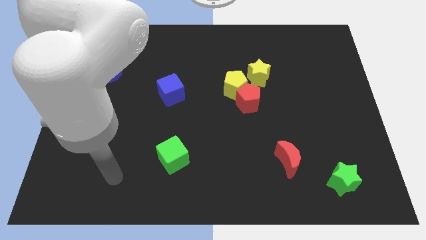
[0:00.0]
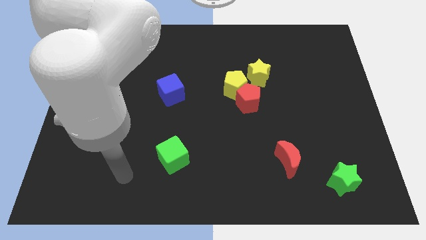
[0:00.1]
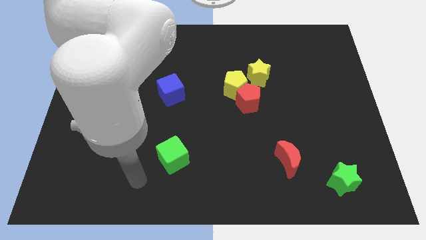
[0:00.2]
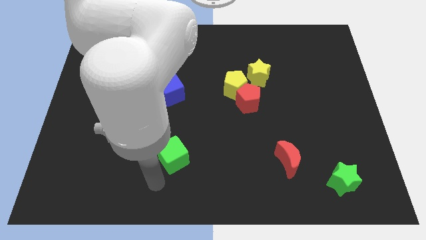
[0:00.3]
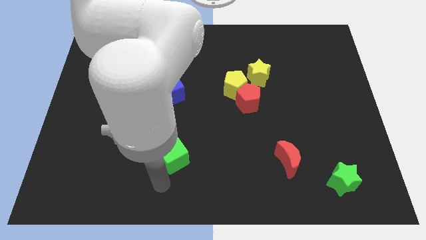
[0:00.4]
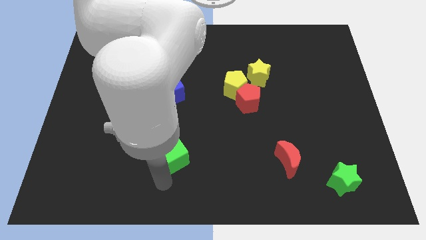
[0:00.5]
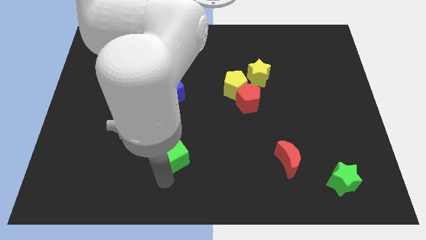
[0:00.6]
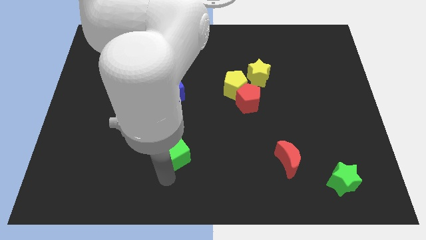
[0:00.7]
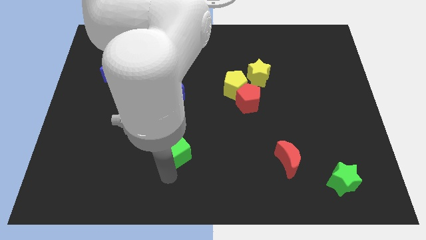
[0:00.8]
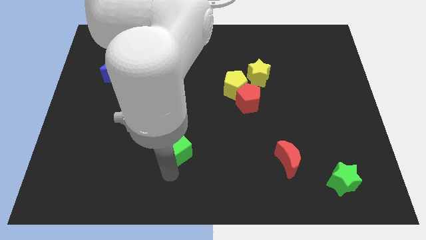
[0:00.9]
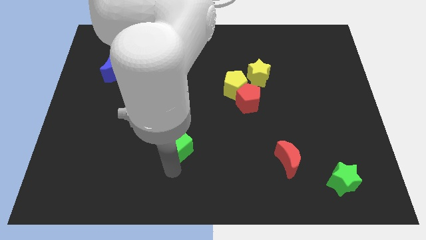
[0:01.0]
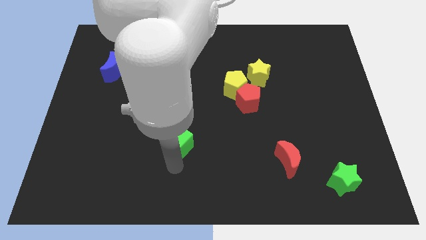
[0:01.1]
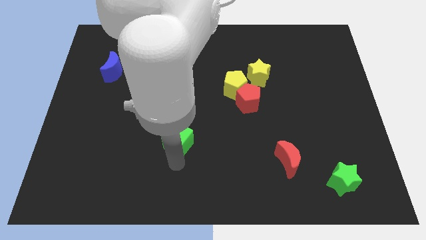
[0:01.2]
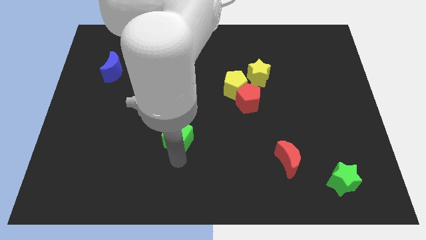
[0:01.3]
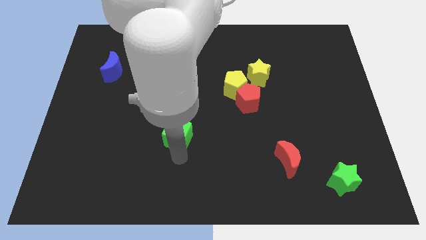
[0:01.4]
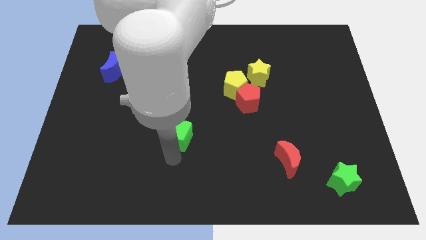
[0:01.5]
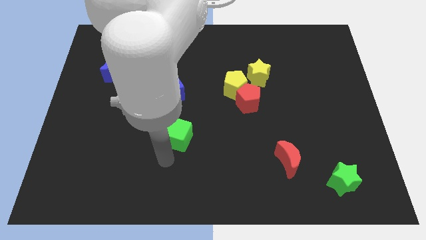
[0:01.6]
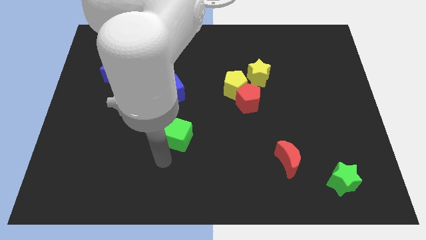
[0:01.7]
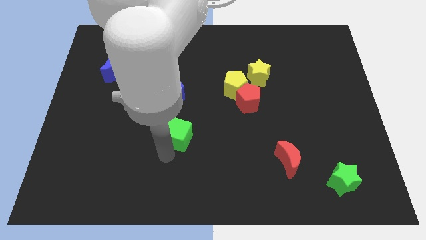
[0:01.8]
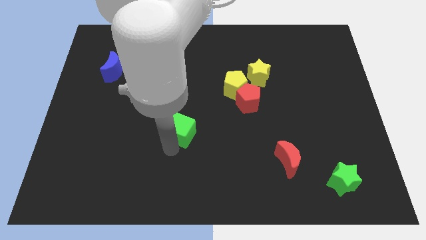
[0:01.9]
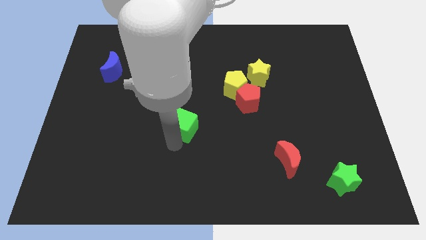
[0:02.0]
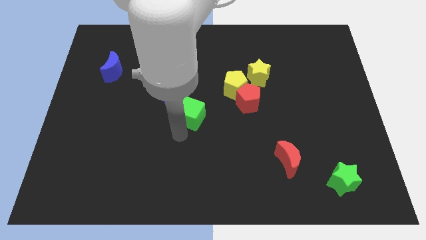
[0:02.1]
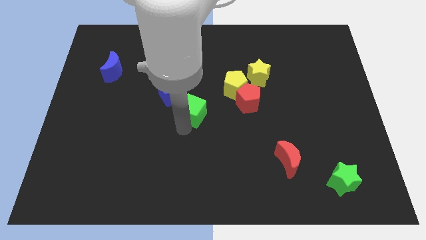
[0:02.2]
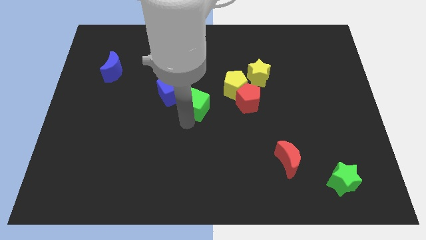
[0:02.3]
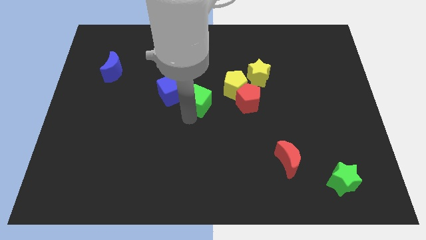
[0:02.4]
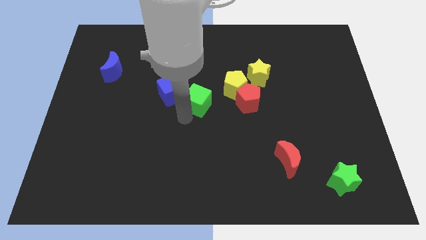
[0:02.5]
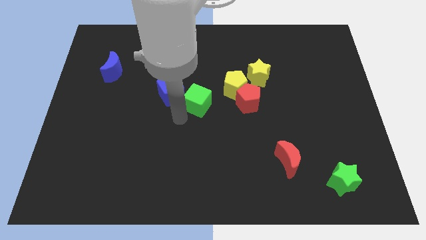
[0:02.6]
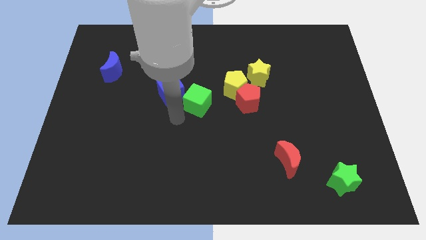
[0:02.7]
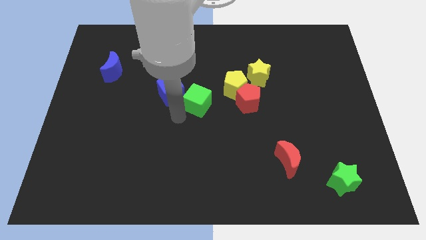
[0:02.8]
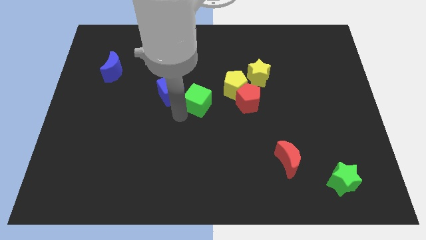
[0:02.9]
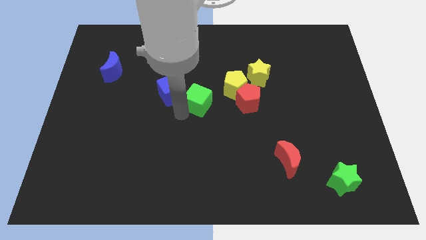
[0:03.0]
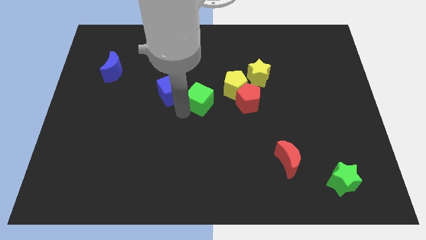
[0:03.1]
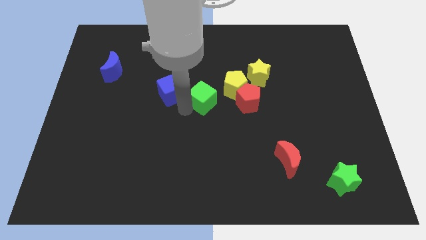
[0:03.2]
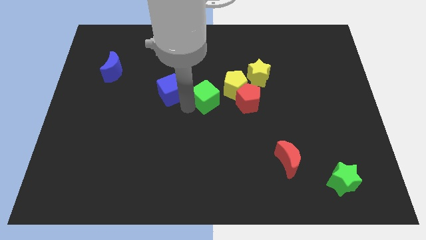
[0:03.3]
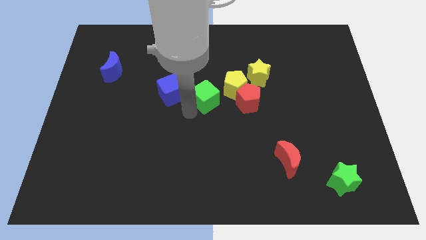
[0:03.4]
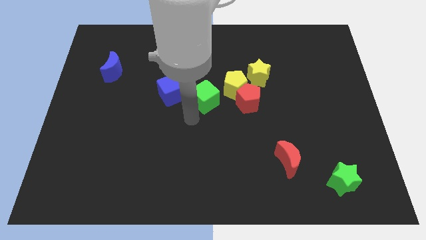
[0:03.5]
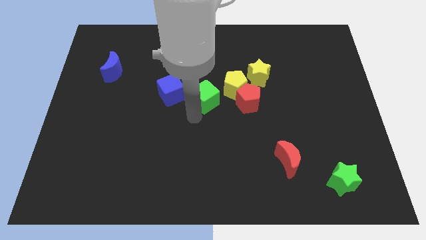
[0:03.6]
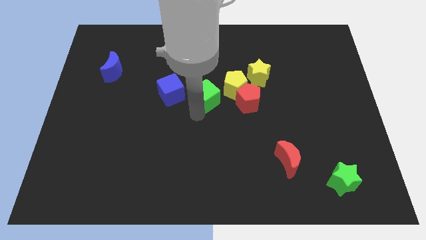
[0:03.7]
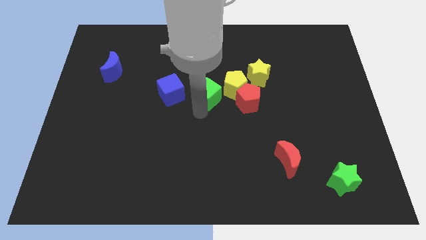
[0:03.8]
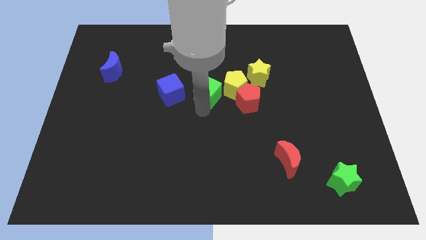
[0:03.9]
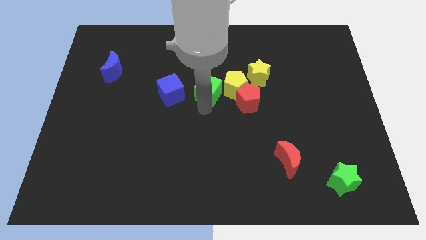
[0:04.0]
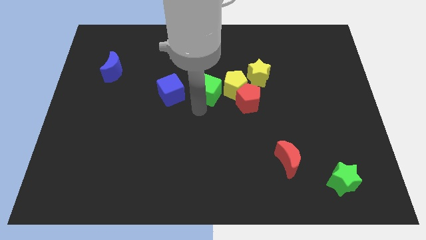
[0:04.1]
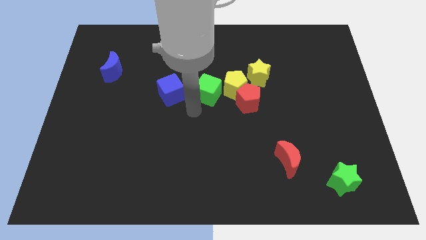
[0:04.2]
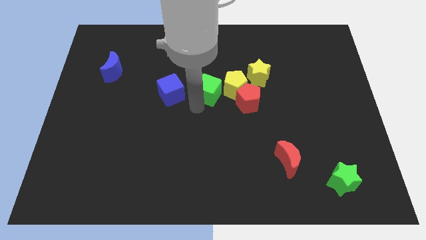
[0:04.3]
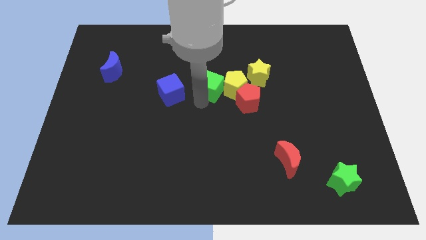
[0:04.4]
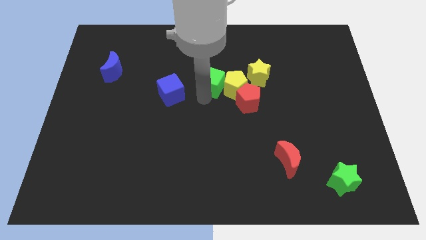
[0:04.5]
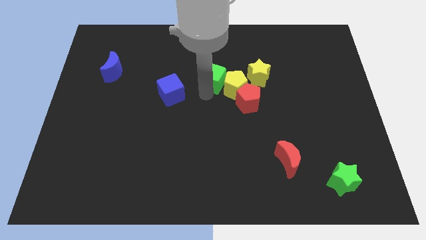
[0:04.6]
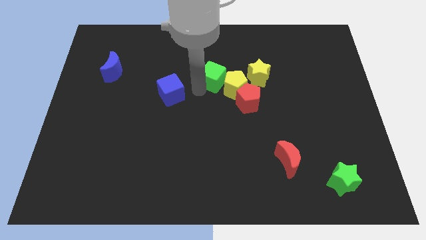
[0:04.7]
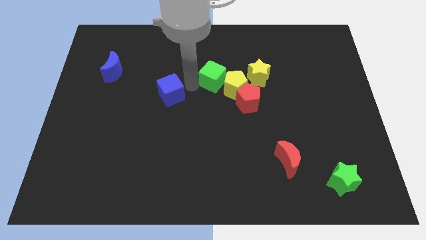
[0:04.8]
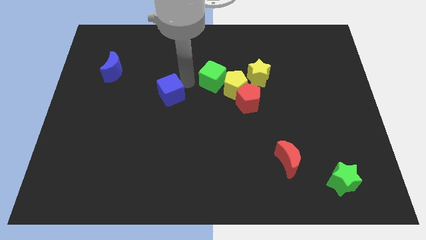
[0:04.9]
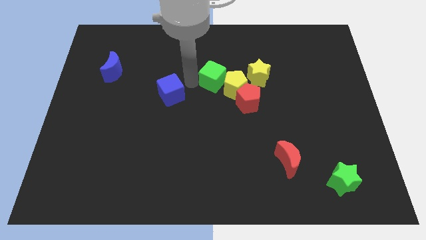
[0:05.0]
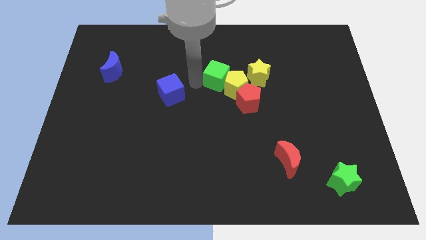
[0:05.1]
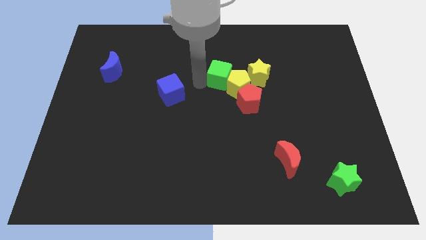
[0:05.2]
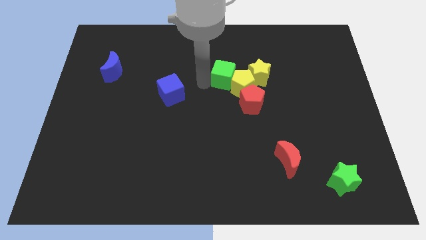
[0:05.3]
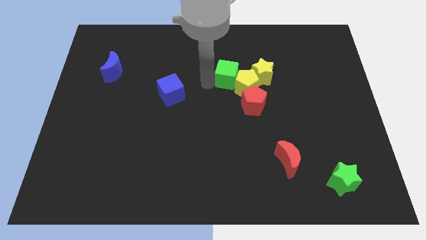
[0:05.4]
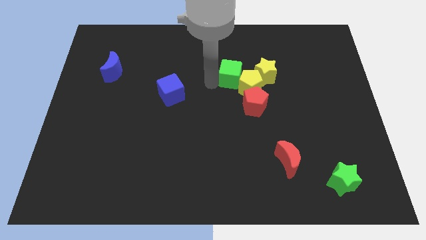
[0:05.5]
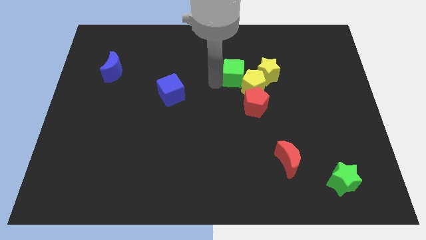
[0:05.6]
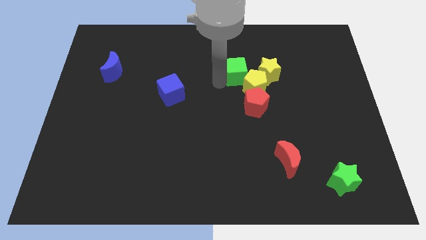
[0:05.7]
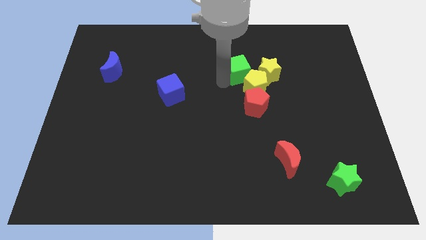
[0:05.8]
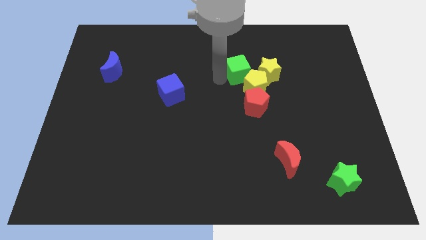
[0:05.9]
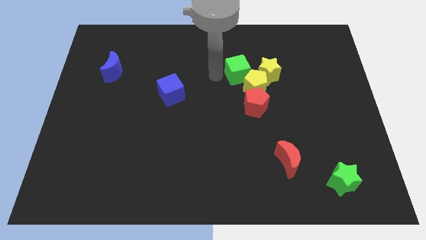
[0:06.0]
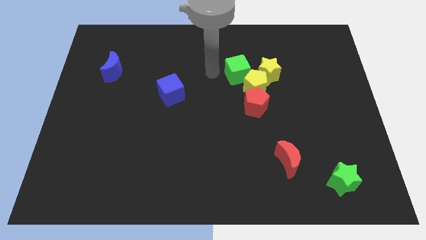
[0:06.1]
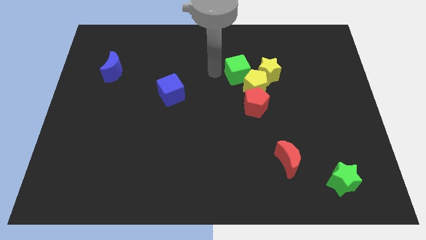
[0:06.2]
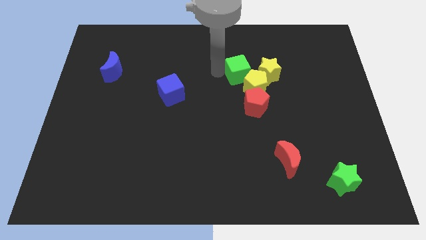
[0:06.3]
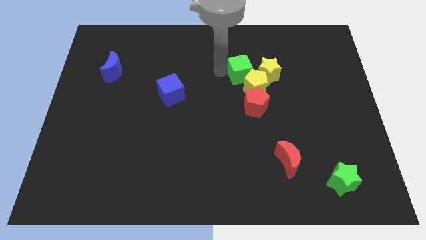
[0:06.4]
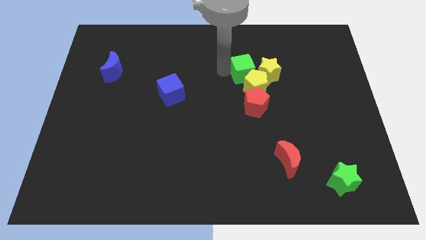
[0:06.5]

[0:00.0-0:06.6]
put the green cube towards the yellow star

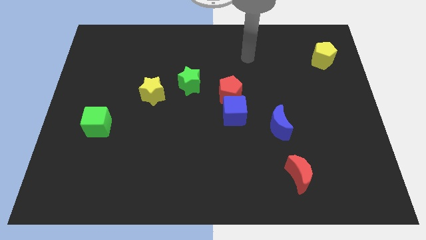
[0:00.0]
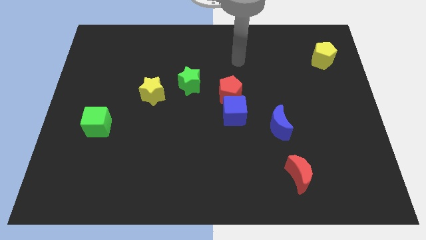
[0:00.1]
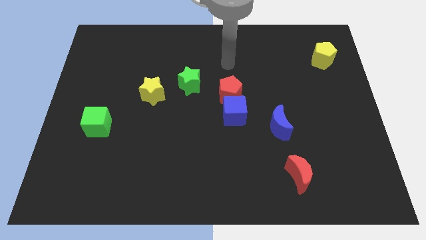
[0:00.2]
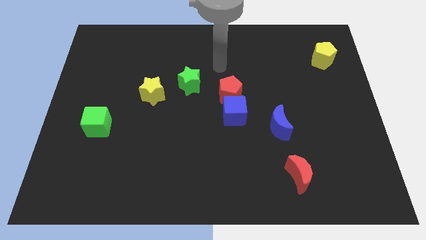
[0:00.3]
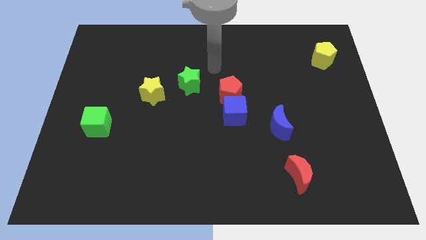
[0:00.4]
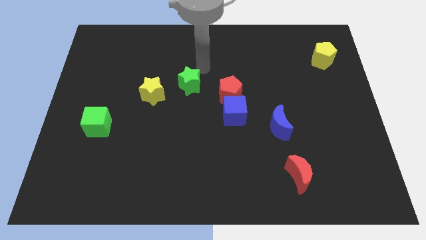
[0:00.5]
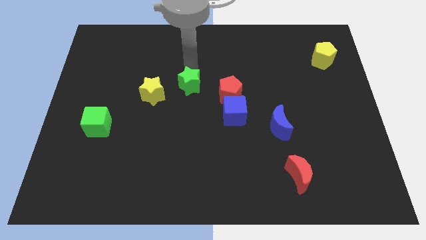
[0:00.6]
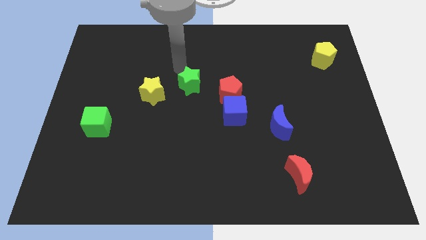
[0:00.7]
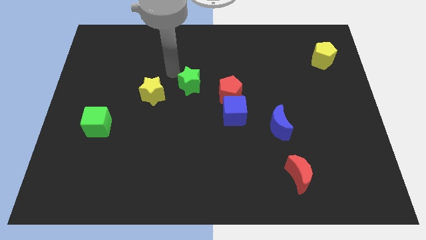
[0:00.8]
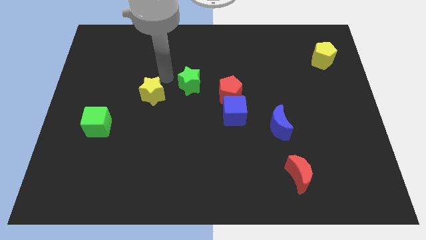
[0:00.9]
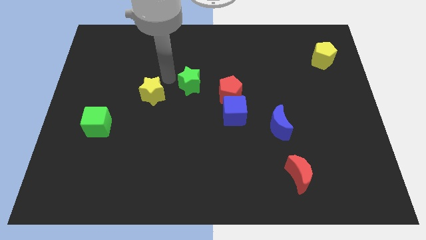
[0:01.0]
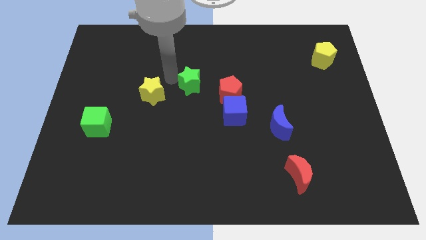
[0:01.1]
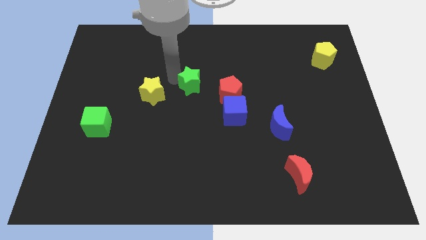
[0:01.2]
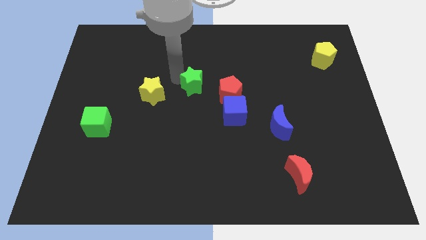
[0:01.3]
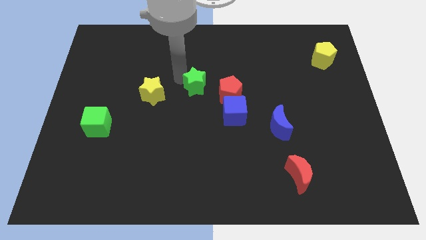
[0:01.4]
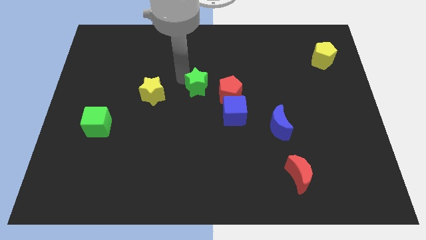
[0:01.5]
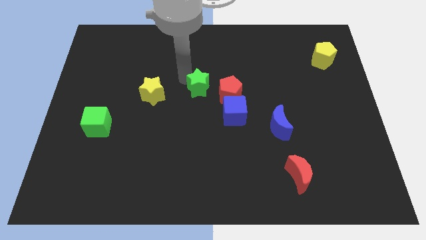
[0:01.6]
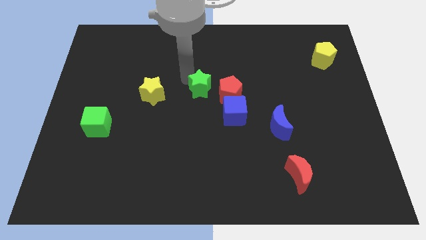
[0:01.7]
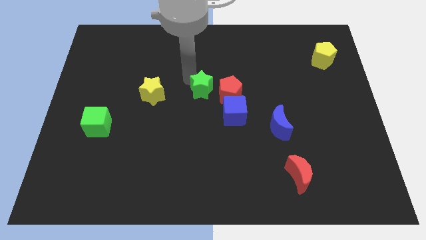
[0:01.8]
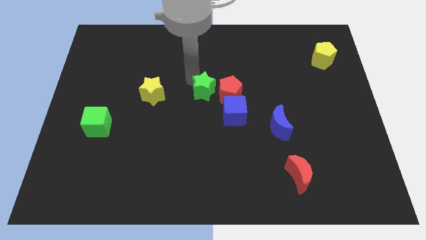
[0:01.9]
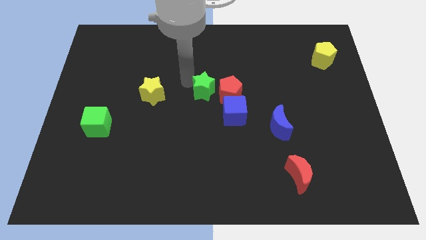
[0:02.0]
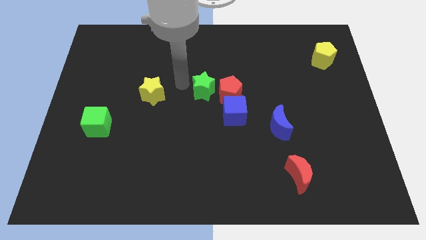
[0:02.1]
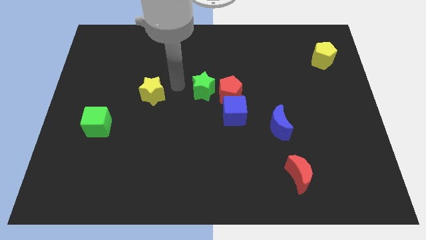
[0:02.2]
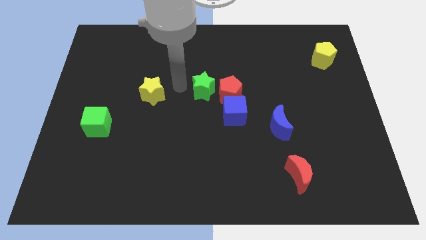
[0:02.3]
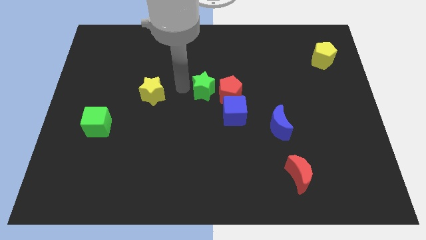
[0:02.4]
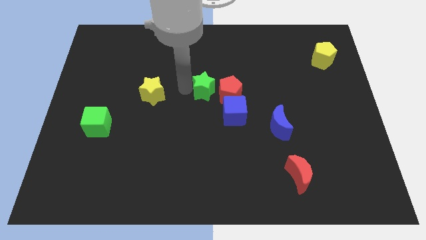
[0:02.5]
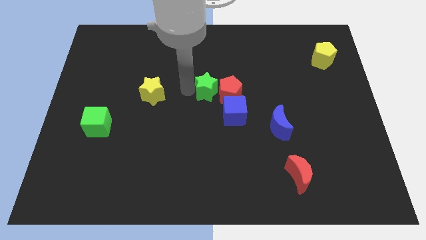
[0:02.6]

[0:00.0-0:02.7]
put the green star towards the red pentagon
